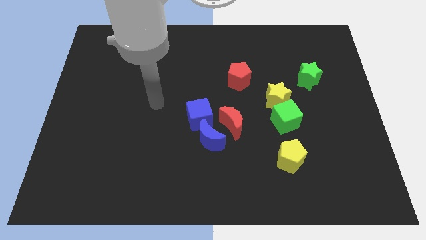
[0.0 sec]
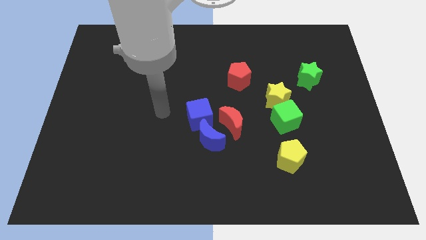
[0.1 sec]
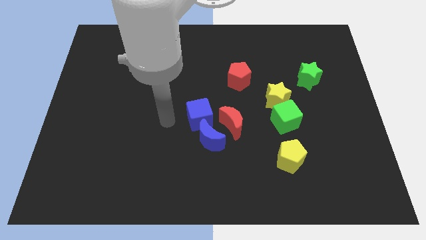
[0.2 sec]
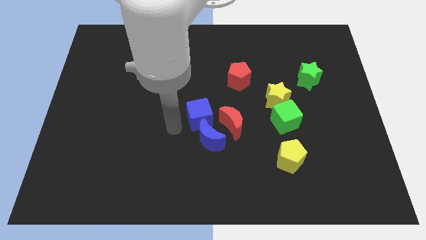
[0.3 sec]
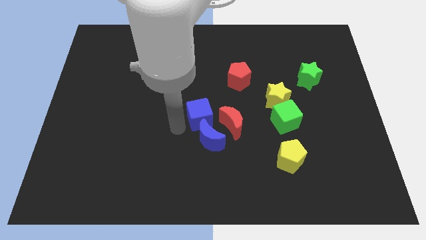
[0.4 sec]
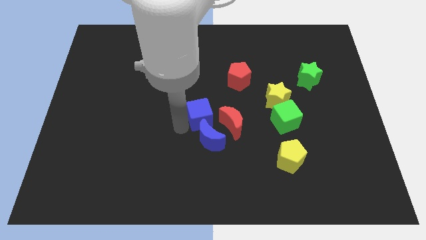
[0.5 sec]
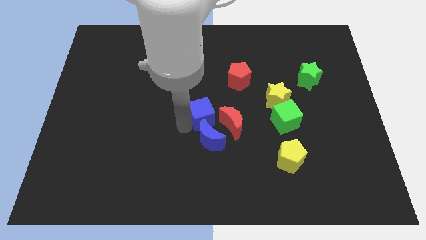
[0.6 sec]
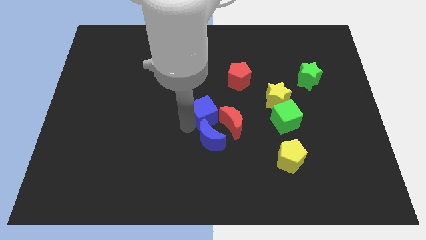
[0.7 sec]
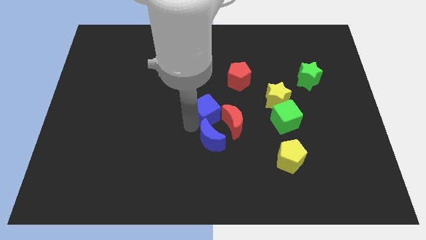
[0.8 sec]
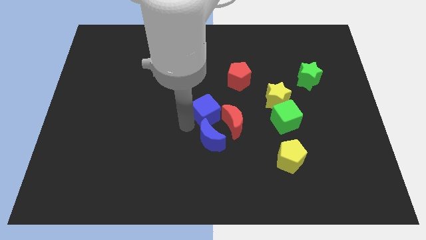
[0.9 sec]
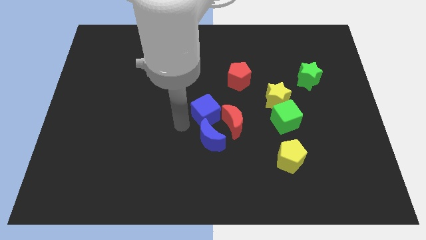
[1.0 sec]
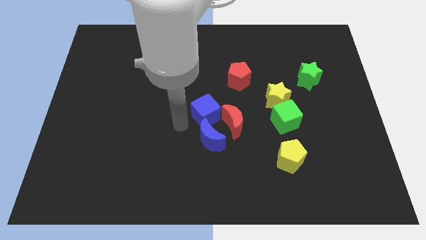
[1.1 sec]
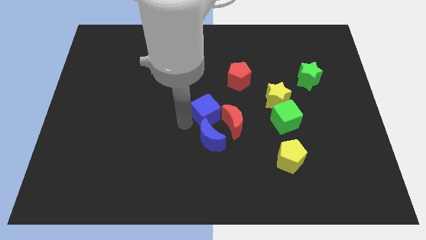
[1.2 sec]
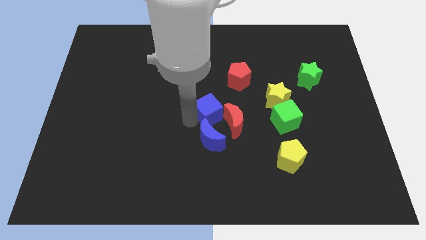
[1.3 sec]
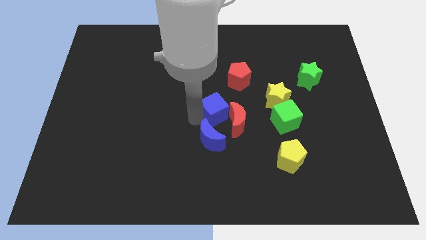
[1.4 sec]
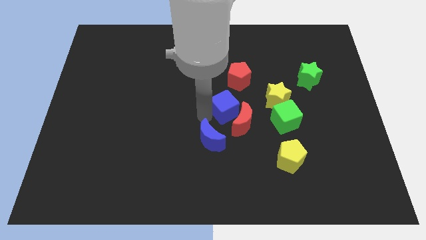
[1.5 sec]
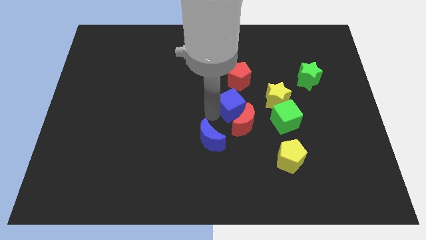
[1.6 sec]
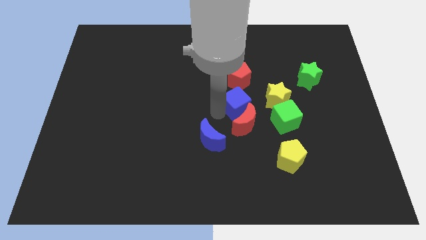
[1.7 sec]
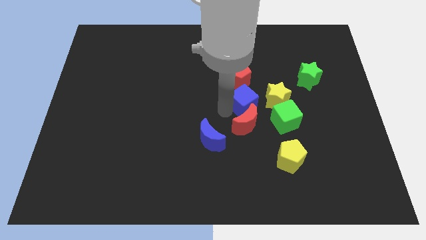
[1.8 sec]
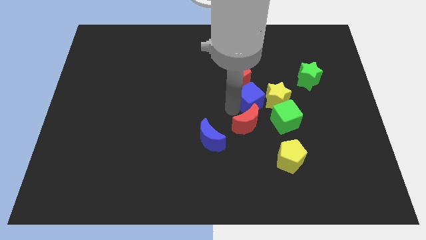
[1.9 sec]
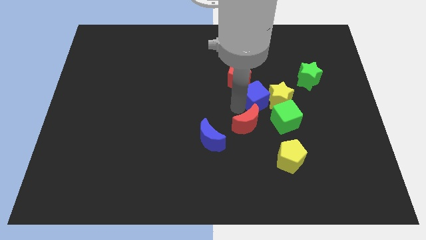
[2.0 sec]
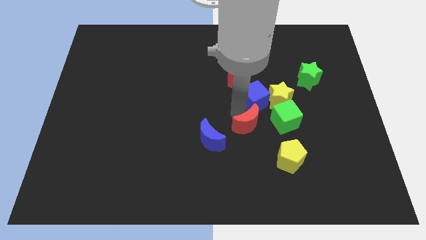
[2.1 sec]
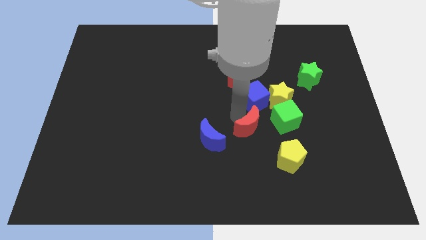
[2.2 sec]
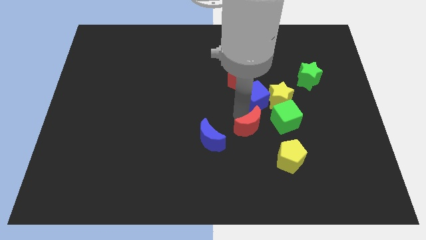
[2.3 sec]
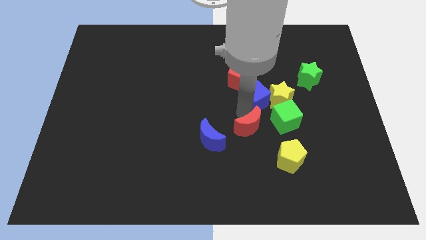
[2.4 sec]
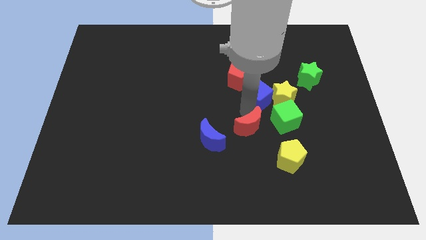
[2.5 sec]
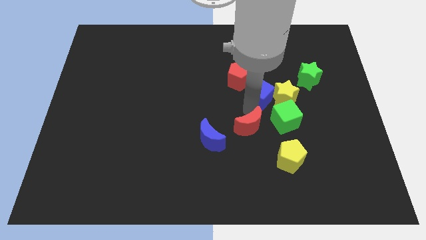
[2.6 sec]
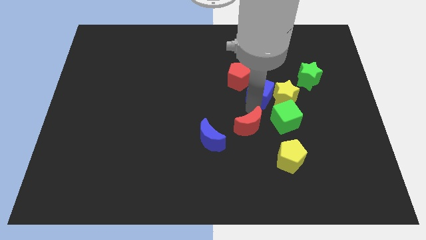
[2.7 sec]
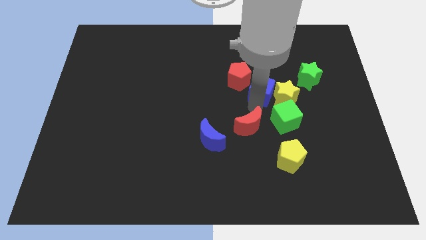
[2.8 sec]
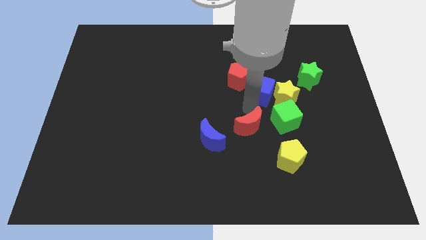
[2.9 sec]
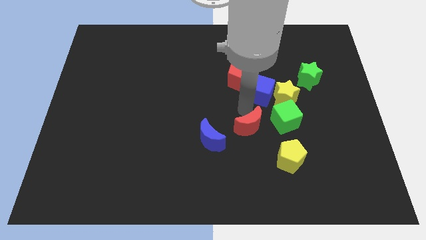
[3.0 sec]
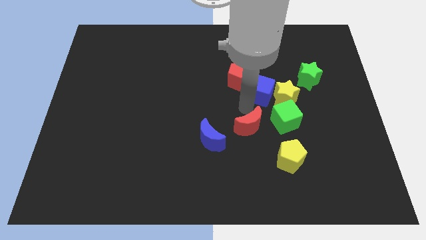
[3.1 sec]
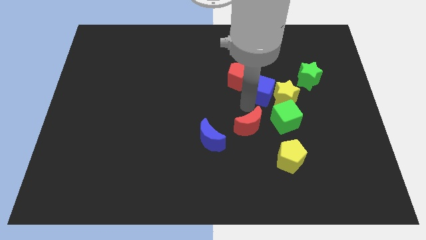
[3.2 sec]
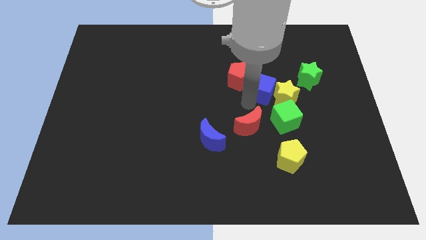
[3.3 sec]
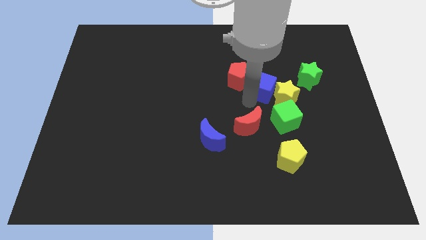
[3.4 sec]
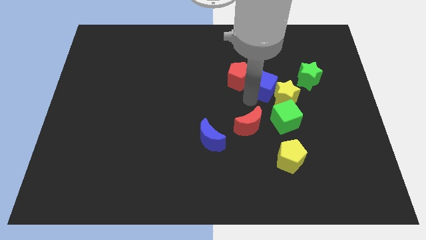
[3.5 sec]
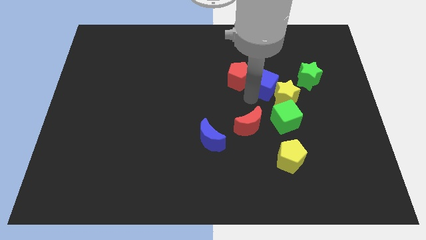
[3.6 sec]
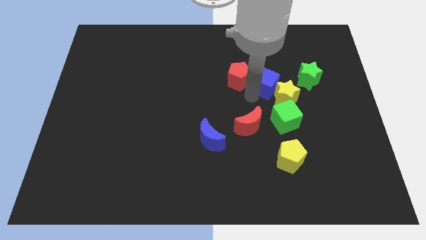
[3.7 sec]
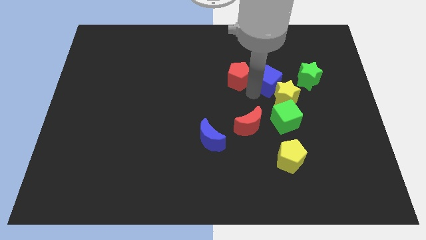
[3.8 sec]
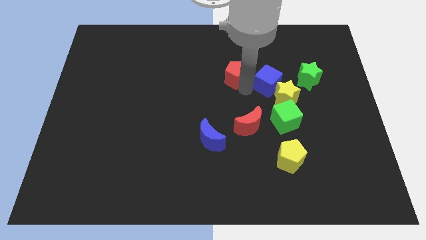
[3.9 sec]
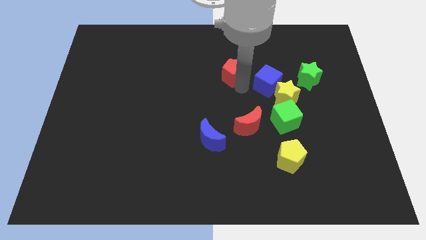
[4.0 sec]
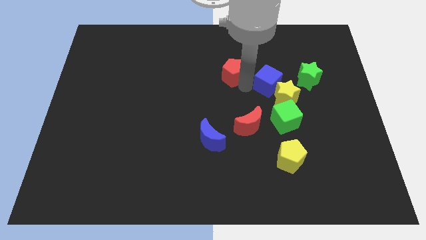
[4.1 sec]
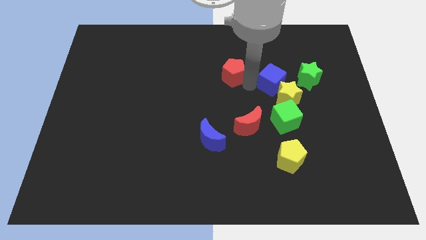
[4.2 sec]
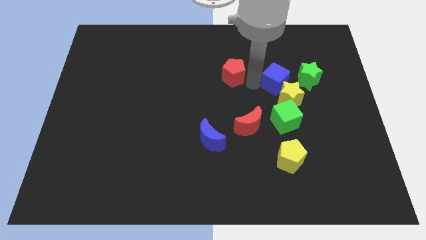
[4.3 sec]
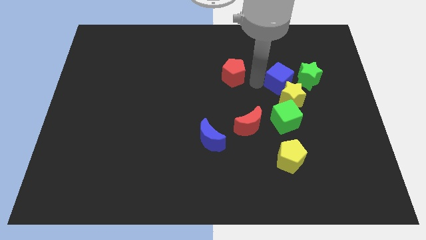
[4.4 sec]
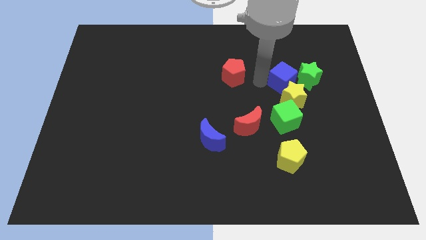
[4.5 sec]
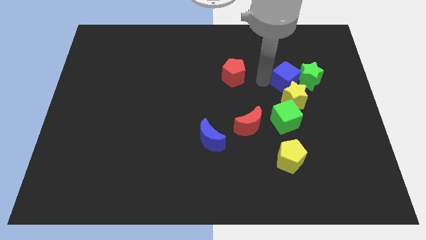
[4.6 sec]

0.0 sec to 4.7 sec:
slide the blue cube next to the green star

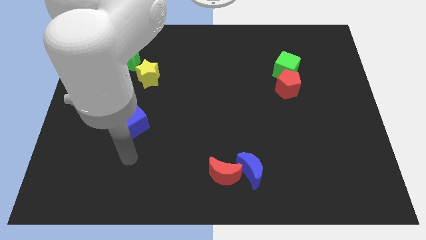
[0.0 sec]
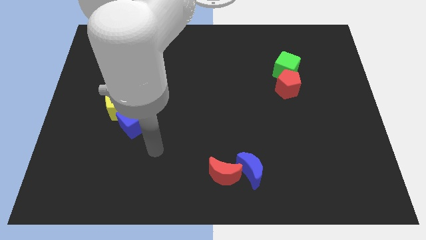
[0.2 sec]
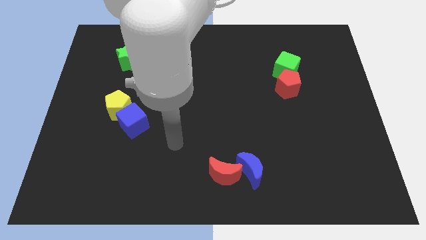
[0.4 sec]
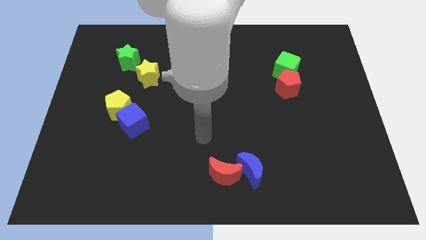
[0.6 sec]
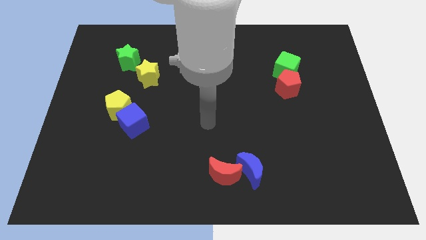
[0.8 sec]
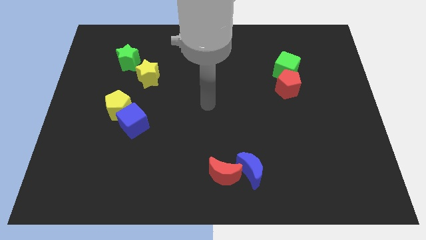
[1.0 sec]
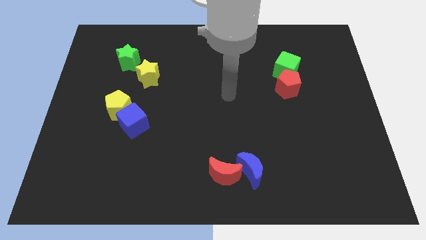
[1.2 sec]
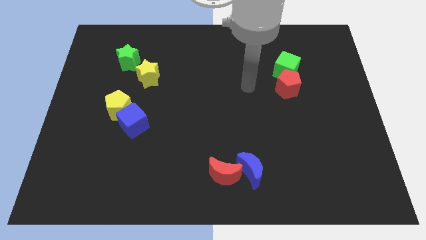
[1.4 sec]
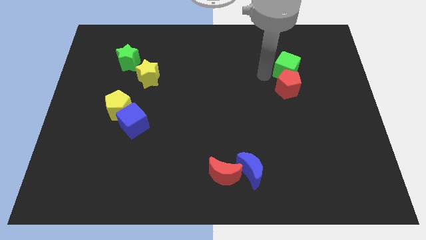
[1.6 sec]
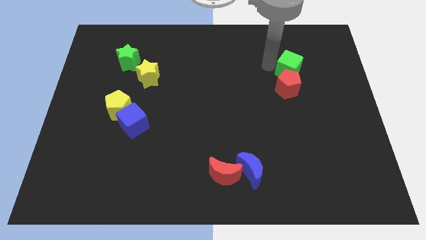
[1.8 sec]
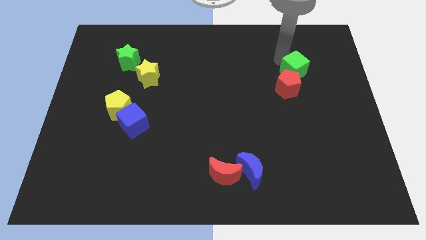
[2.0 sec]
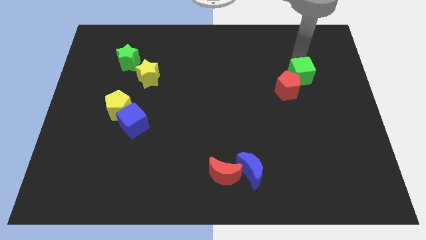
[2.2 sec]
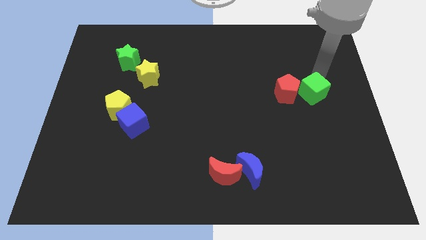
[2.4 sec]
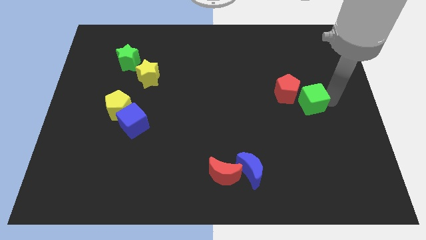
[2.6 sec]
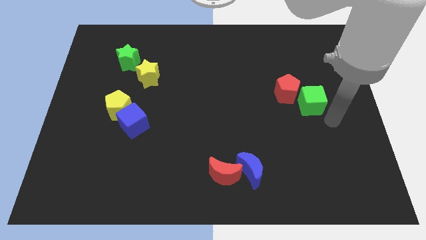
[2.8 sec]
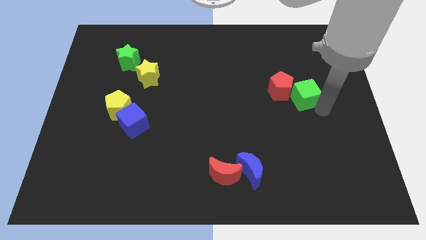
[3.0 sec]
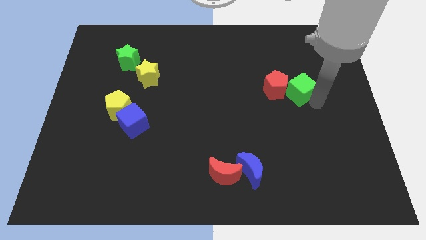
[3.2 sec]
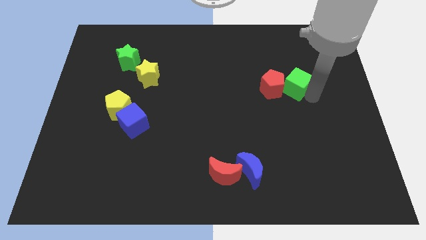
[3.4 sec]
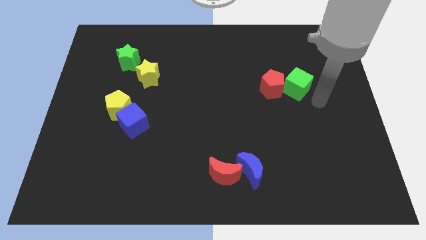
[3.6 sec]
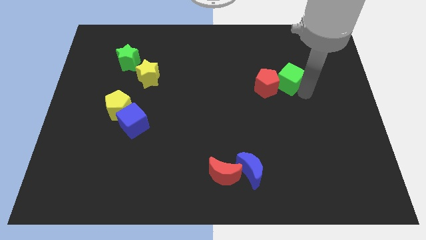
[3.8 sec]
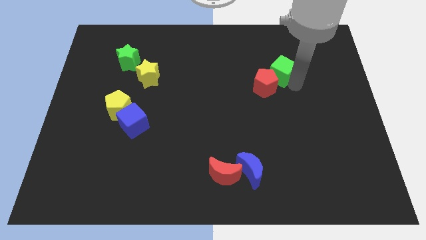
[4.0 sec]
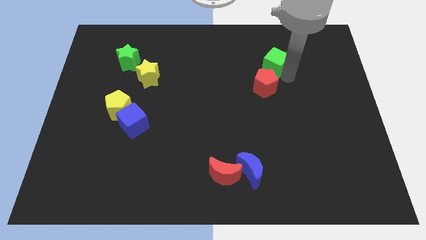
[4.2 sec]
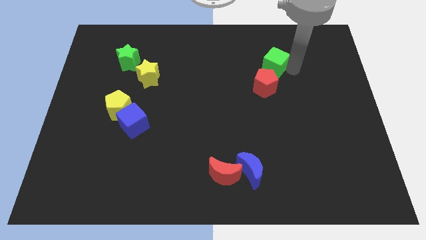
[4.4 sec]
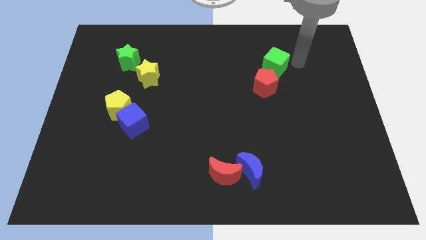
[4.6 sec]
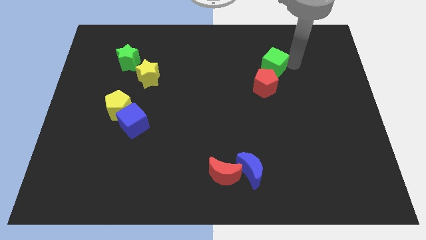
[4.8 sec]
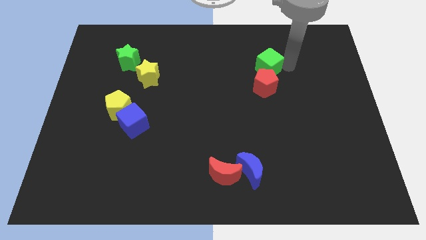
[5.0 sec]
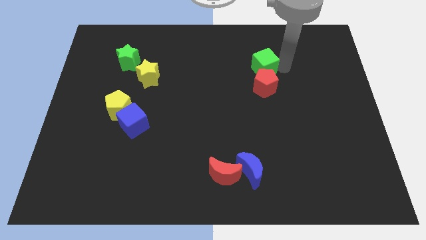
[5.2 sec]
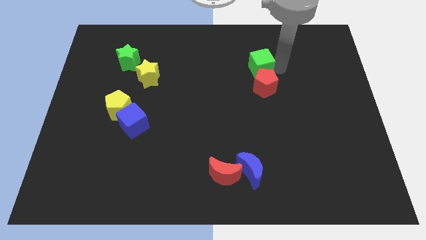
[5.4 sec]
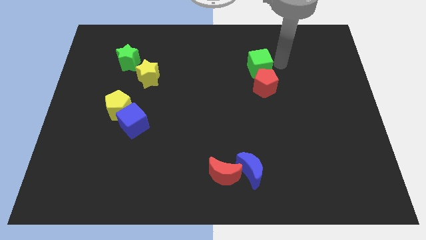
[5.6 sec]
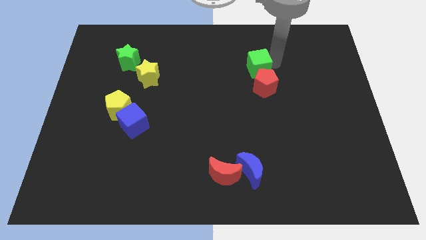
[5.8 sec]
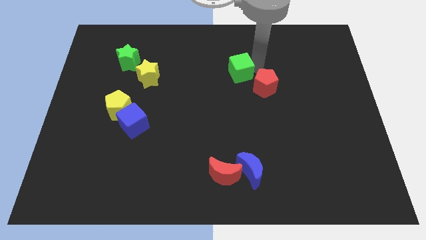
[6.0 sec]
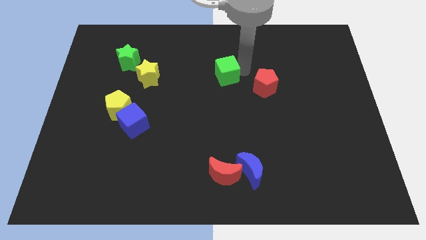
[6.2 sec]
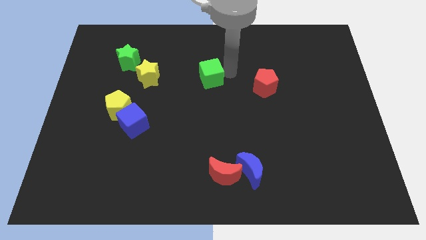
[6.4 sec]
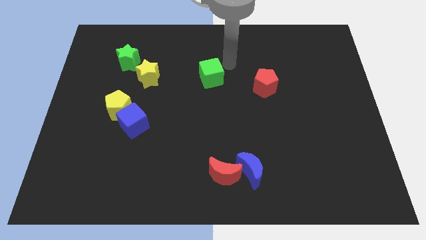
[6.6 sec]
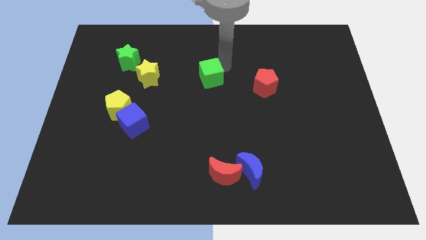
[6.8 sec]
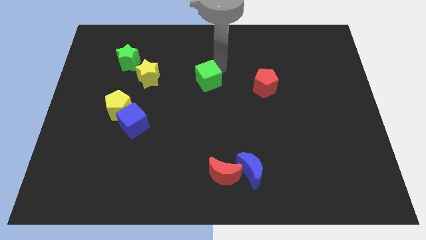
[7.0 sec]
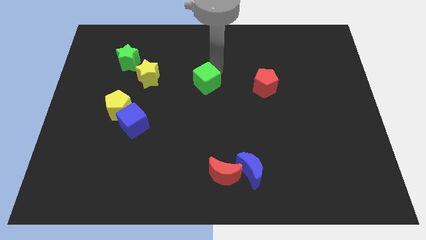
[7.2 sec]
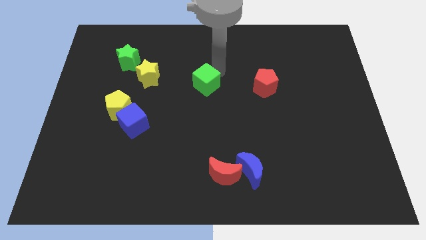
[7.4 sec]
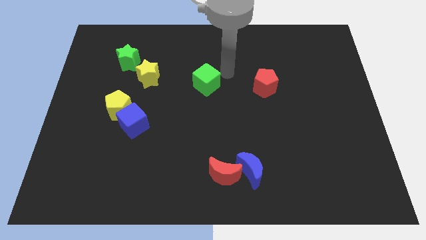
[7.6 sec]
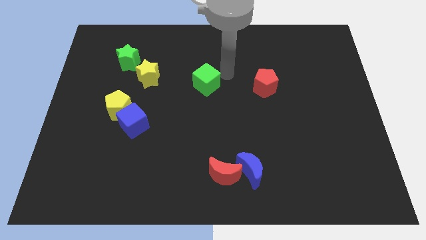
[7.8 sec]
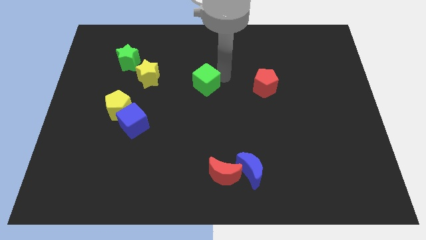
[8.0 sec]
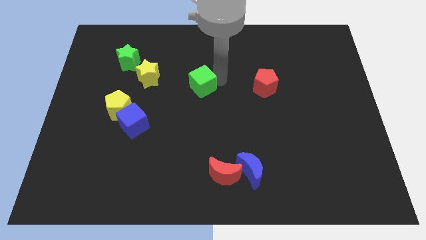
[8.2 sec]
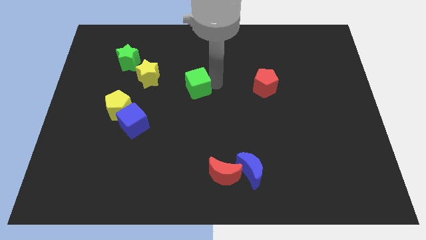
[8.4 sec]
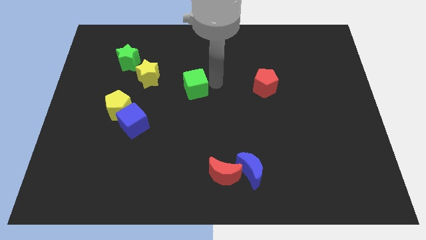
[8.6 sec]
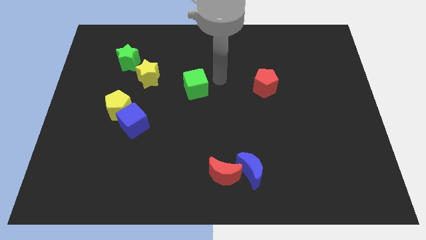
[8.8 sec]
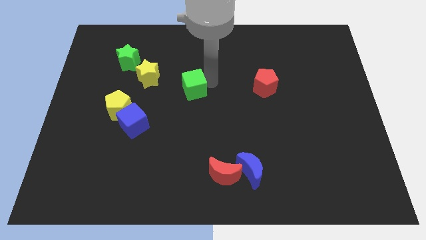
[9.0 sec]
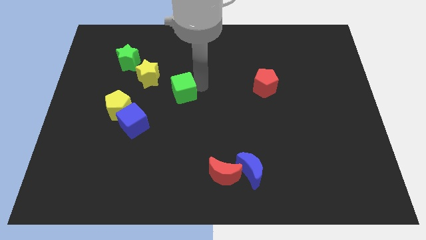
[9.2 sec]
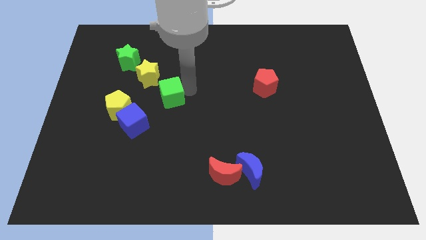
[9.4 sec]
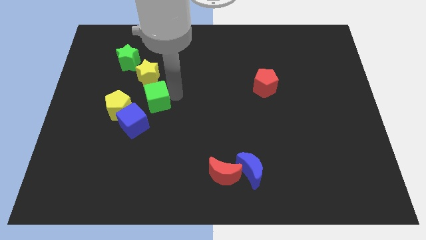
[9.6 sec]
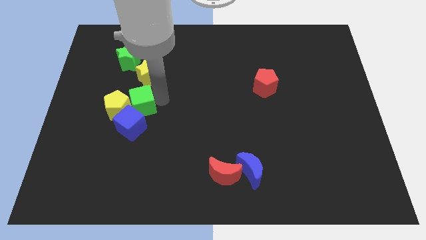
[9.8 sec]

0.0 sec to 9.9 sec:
push the green cube towards the yellow pentagon
